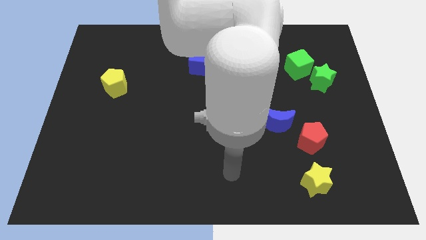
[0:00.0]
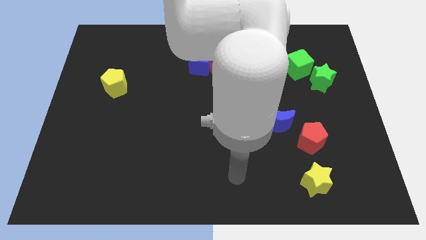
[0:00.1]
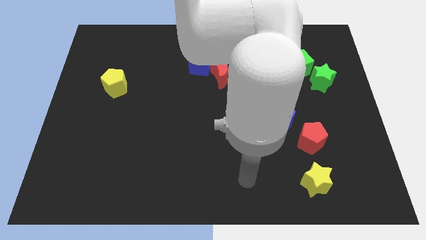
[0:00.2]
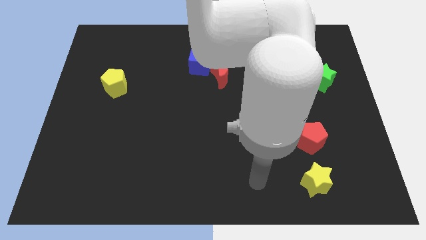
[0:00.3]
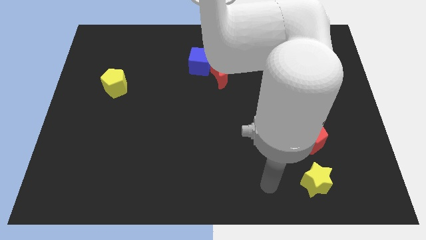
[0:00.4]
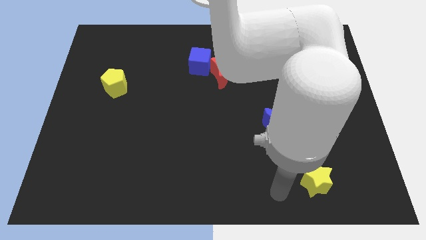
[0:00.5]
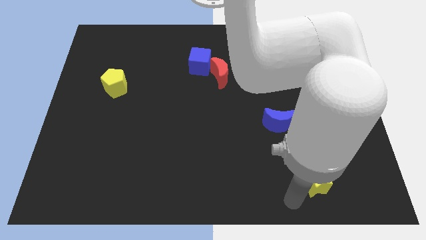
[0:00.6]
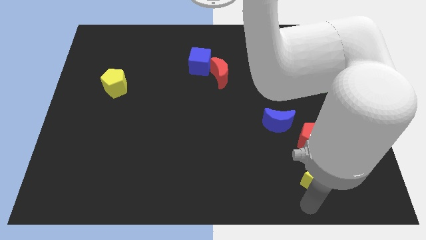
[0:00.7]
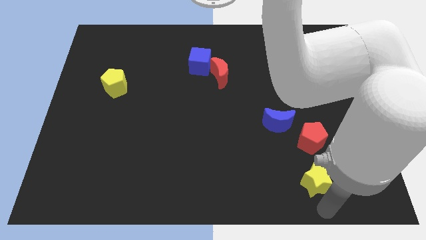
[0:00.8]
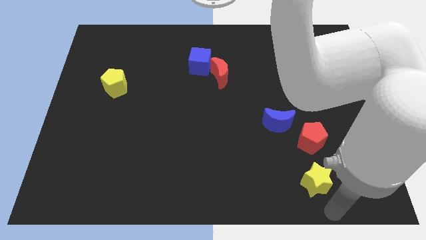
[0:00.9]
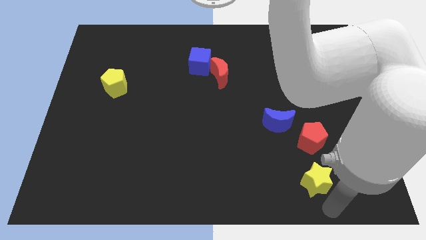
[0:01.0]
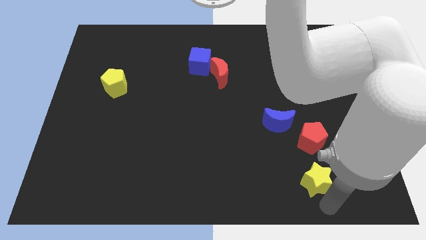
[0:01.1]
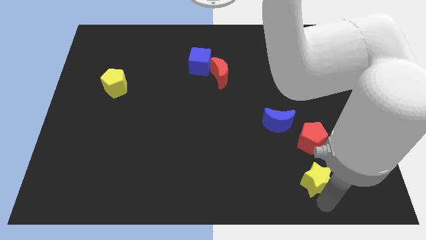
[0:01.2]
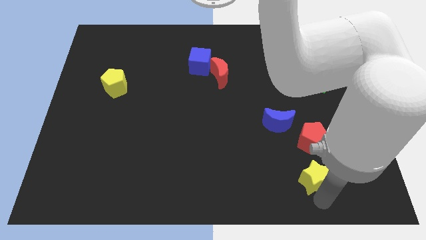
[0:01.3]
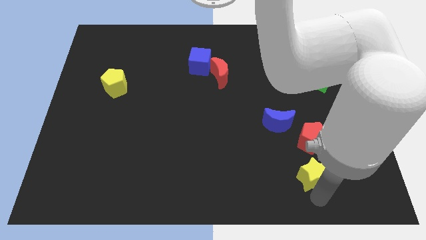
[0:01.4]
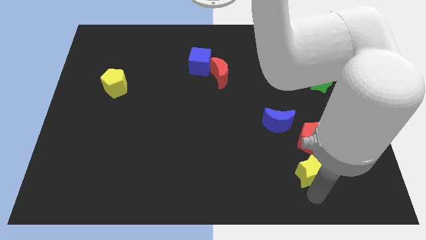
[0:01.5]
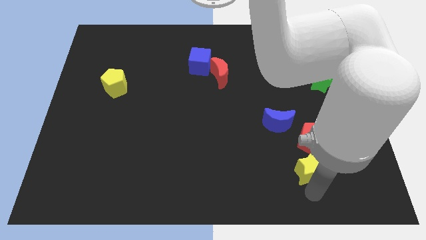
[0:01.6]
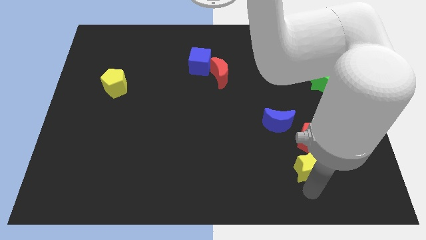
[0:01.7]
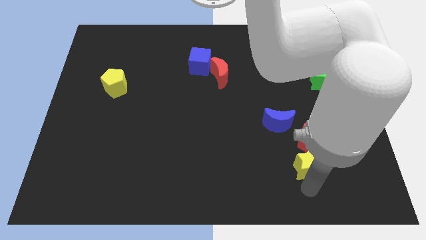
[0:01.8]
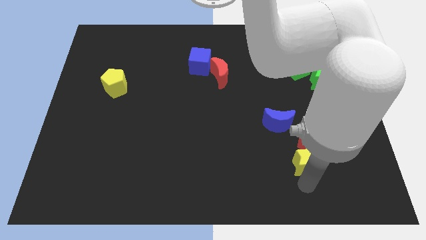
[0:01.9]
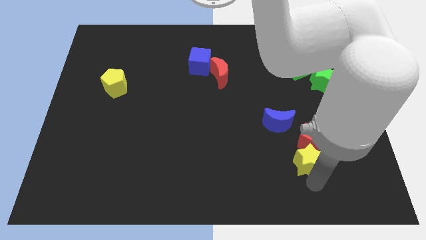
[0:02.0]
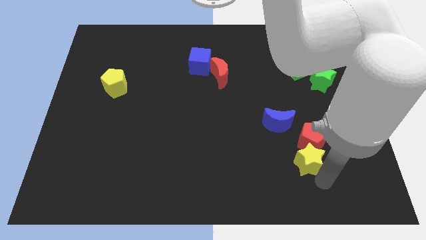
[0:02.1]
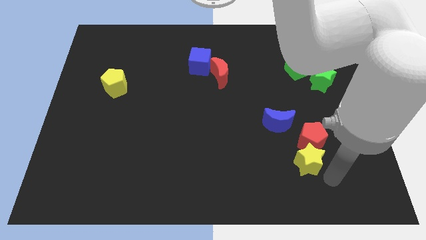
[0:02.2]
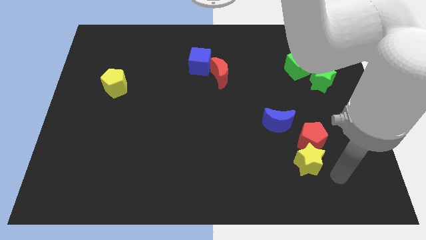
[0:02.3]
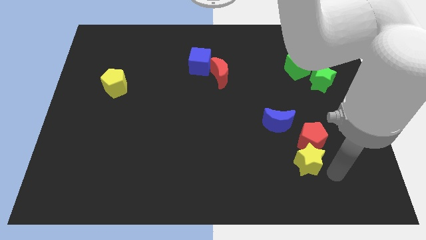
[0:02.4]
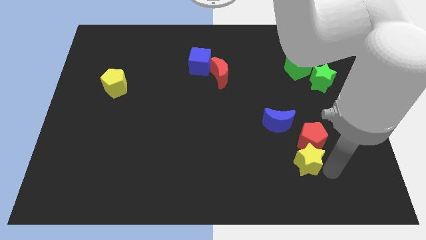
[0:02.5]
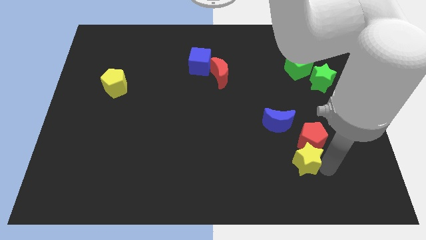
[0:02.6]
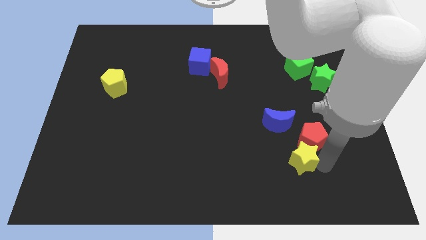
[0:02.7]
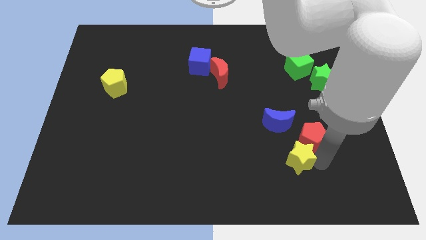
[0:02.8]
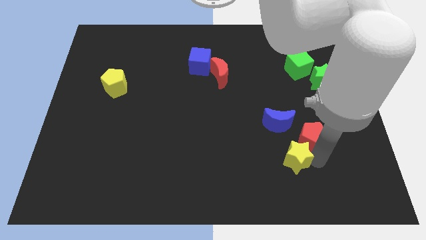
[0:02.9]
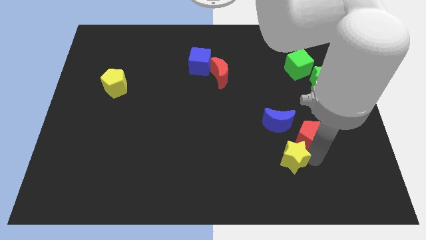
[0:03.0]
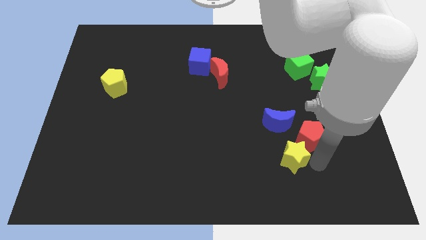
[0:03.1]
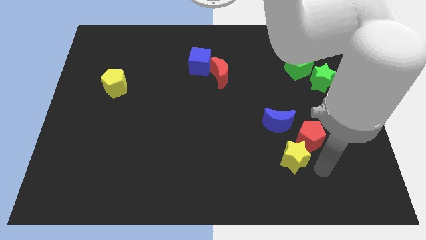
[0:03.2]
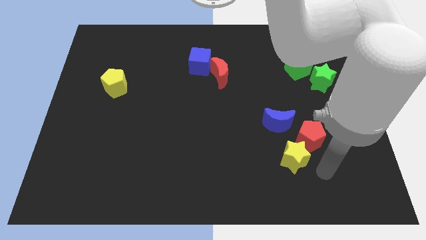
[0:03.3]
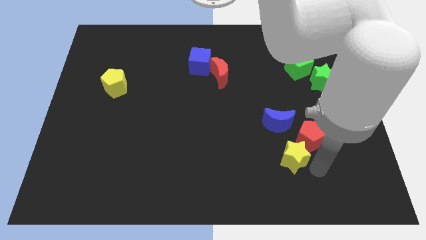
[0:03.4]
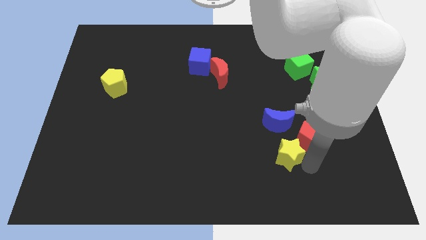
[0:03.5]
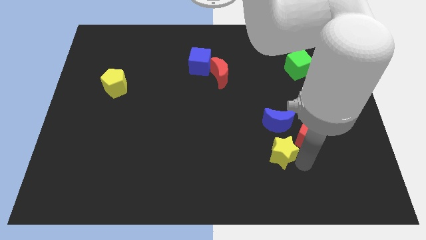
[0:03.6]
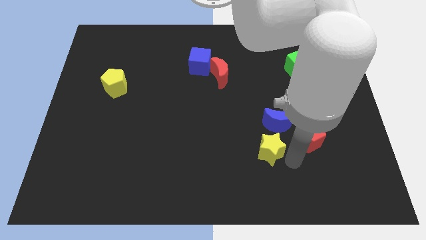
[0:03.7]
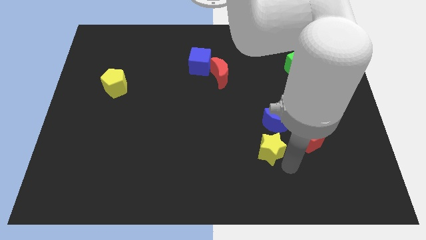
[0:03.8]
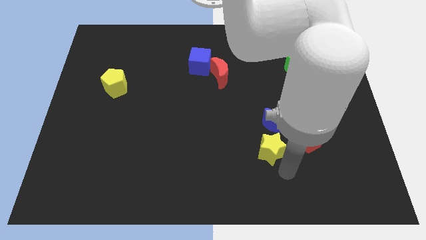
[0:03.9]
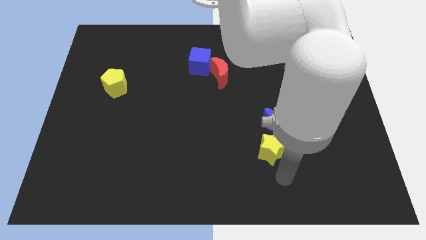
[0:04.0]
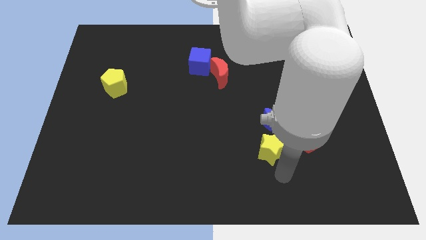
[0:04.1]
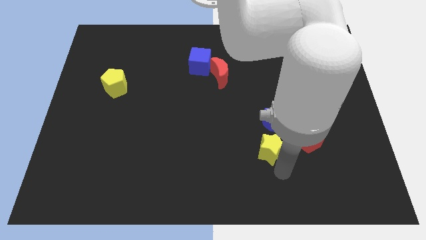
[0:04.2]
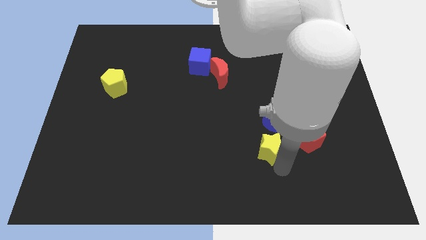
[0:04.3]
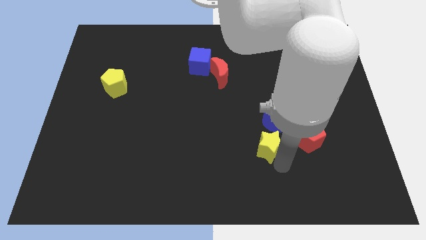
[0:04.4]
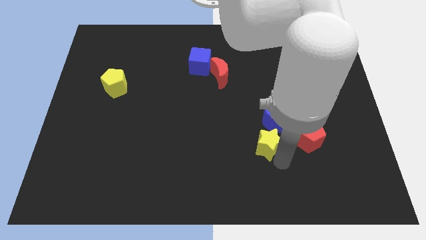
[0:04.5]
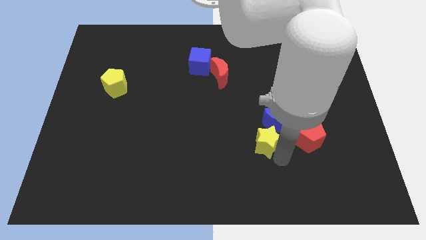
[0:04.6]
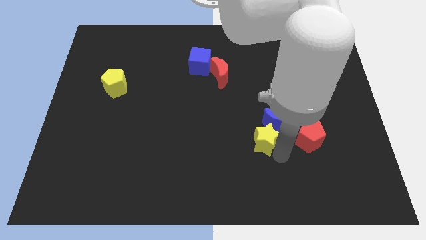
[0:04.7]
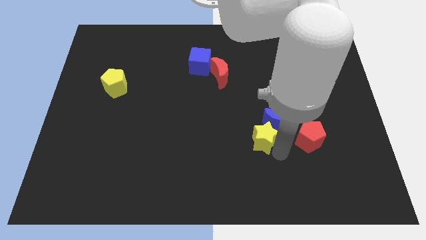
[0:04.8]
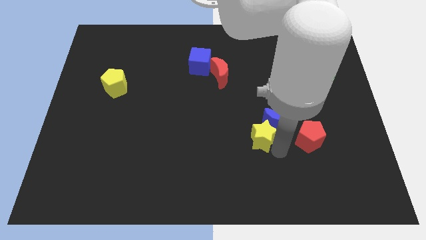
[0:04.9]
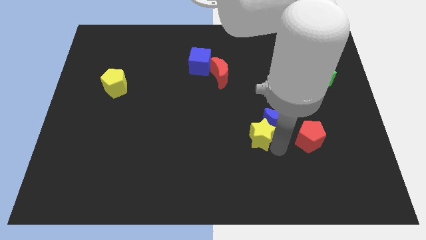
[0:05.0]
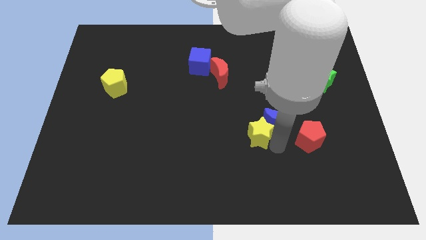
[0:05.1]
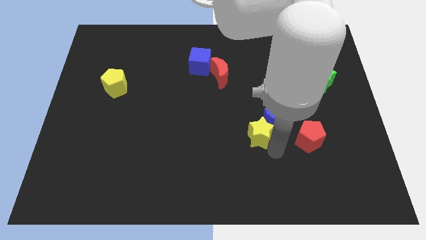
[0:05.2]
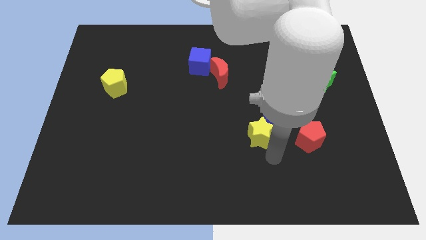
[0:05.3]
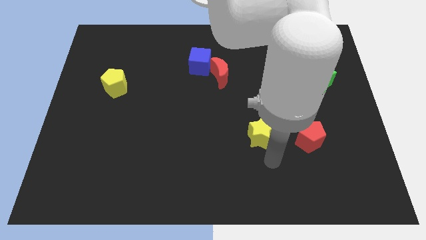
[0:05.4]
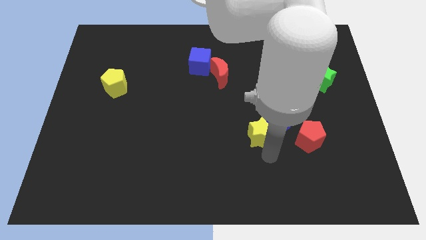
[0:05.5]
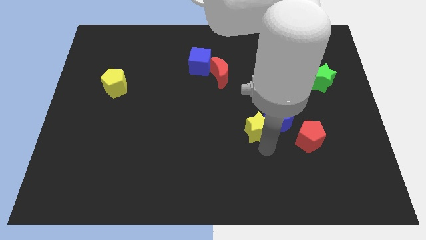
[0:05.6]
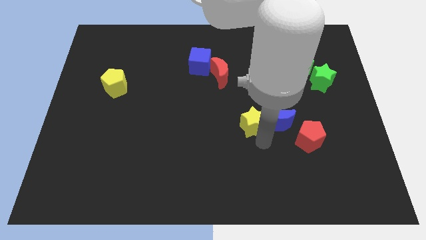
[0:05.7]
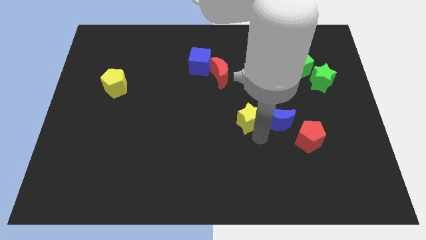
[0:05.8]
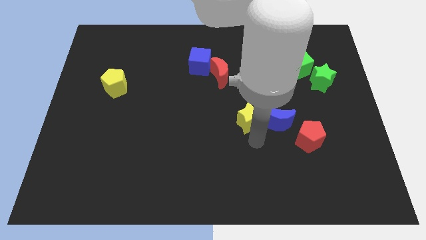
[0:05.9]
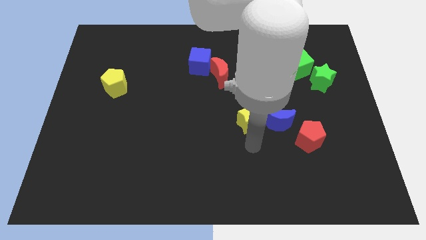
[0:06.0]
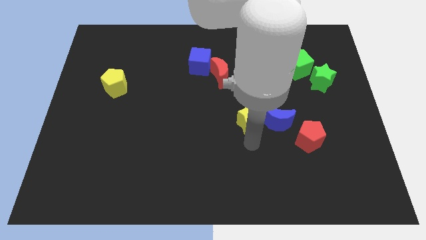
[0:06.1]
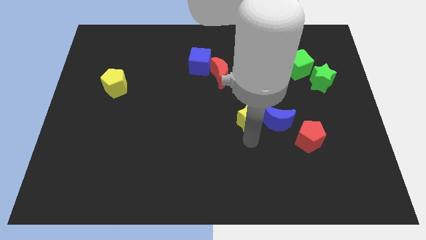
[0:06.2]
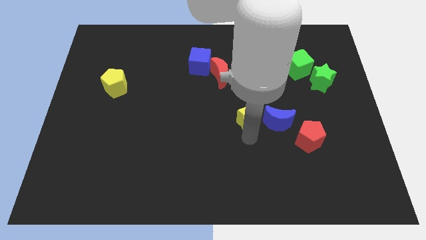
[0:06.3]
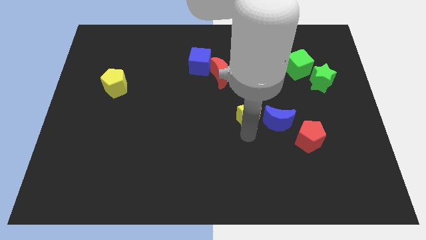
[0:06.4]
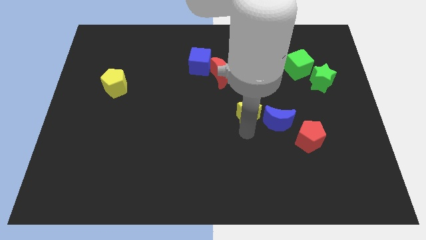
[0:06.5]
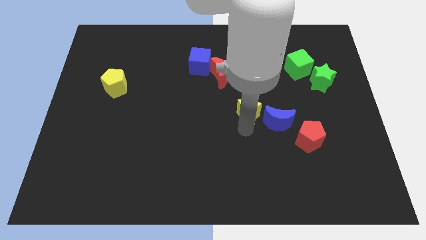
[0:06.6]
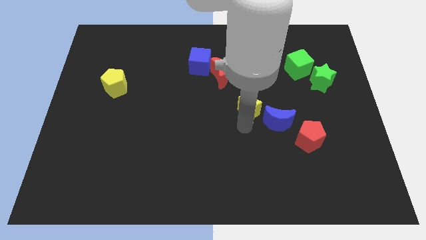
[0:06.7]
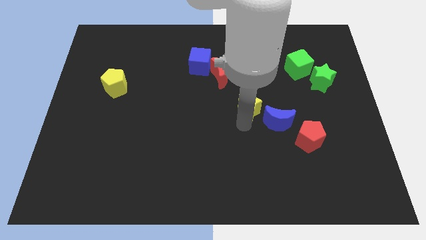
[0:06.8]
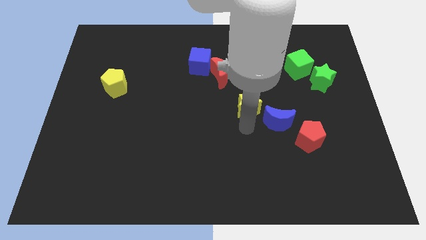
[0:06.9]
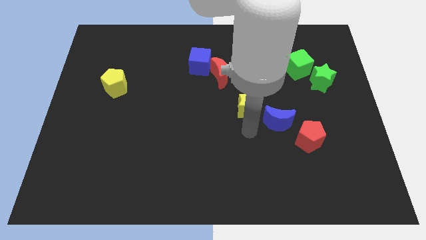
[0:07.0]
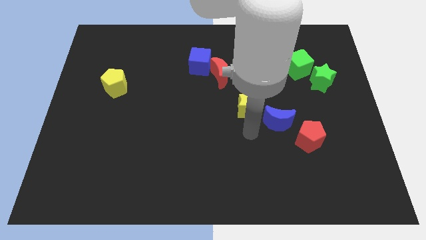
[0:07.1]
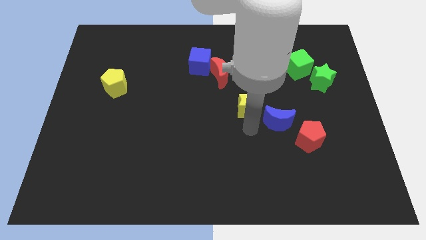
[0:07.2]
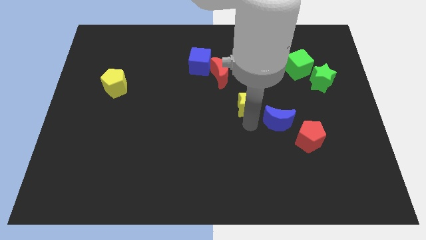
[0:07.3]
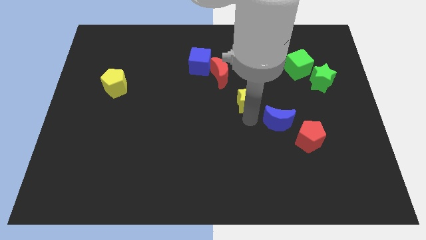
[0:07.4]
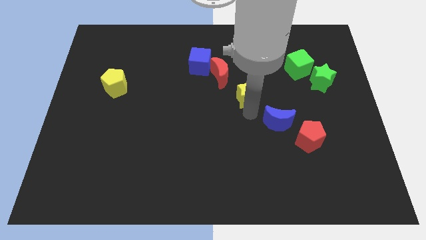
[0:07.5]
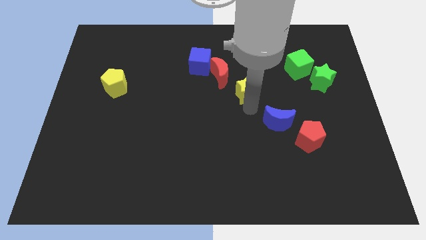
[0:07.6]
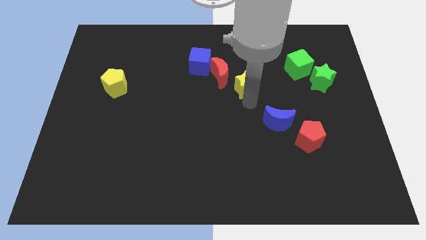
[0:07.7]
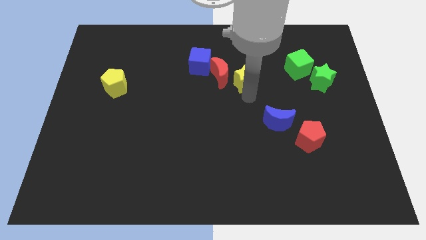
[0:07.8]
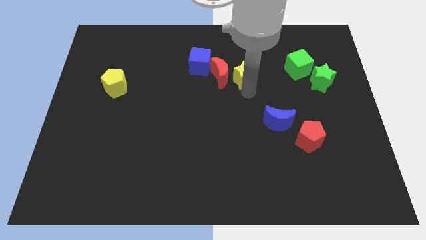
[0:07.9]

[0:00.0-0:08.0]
put the yellow star to the top right of the red moon
